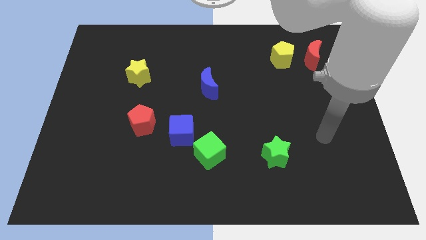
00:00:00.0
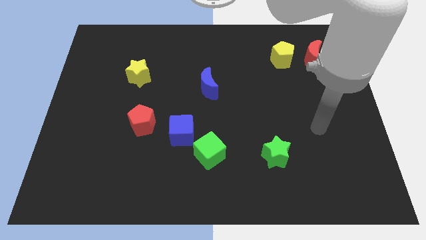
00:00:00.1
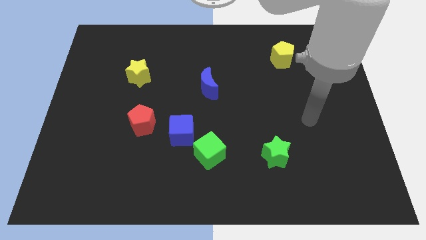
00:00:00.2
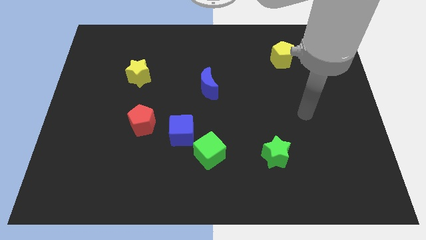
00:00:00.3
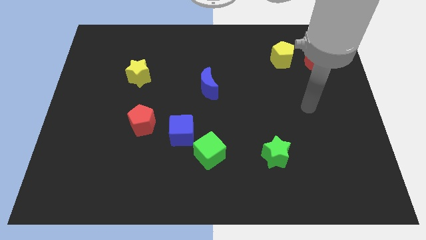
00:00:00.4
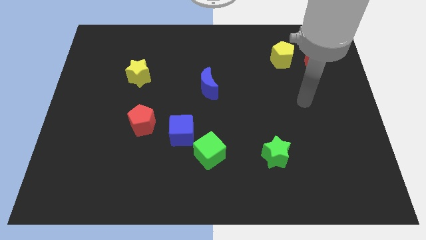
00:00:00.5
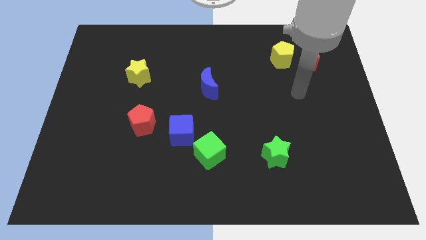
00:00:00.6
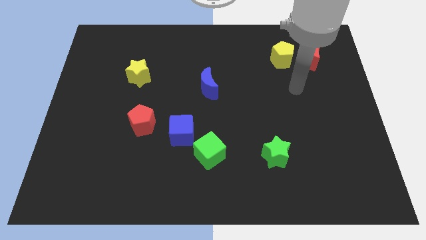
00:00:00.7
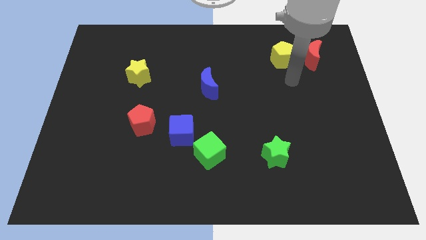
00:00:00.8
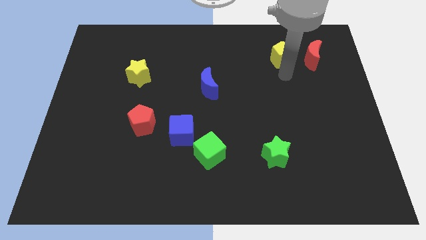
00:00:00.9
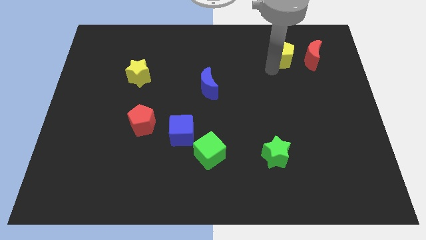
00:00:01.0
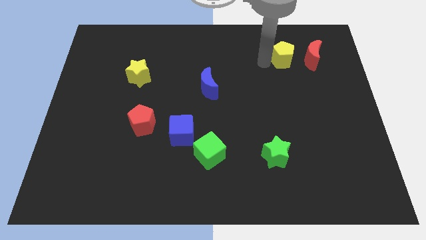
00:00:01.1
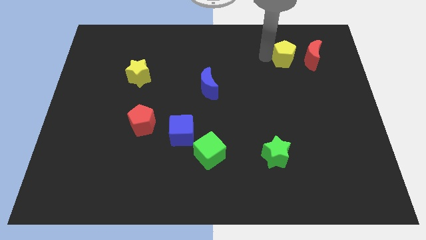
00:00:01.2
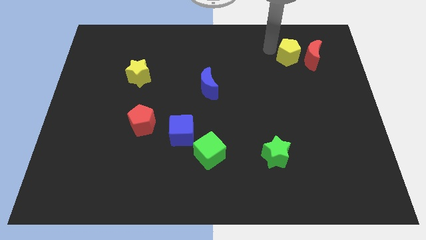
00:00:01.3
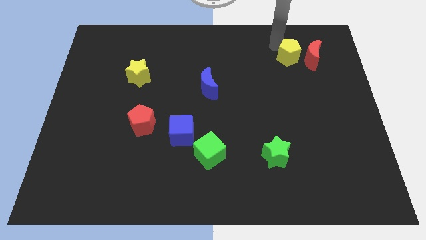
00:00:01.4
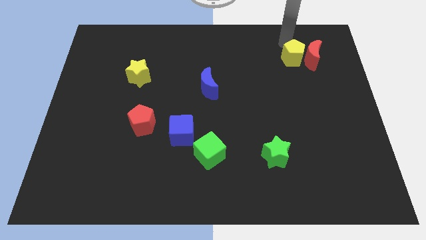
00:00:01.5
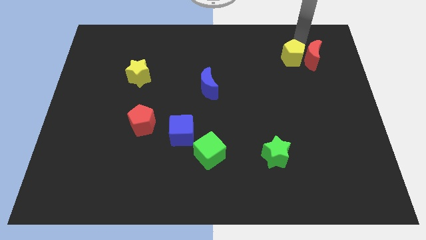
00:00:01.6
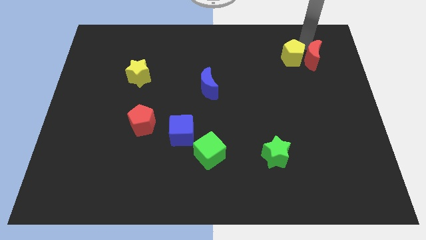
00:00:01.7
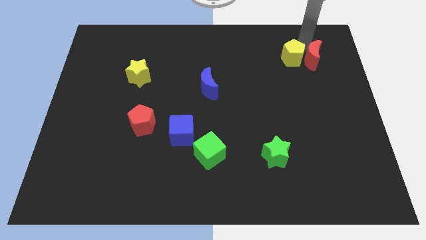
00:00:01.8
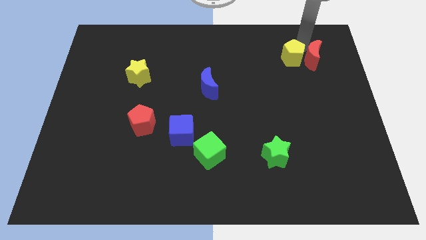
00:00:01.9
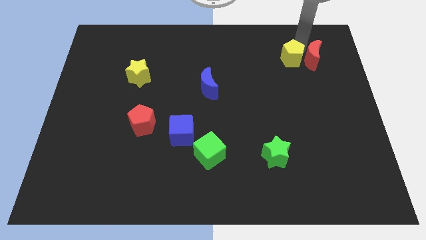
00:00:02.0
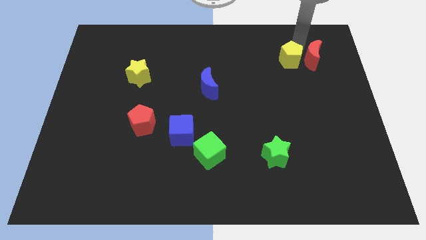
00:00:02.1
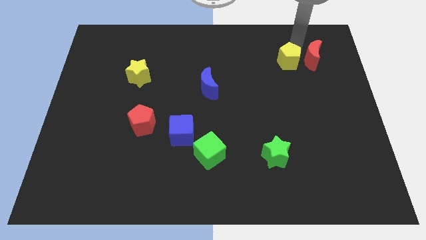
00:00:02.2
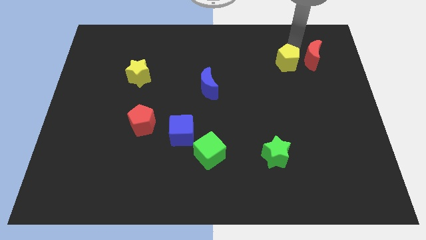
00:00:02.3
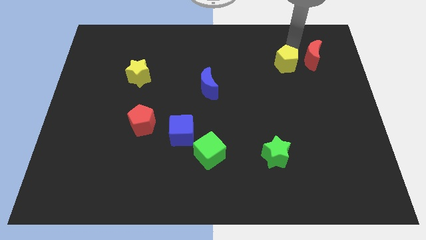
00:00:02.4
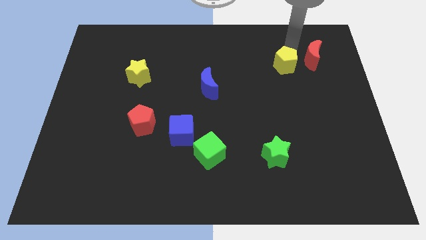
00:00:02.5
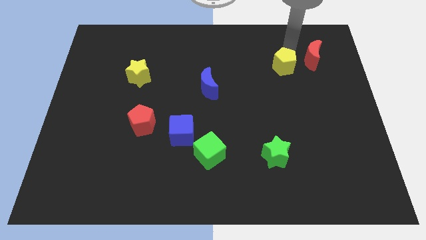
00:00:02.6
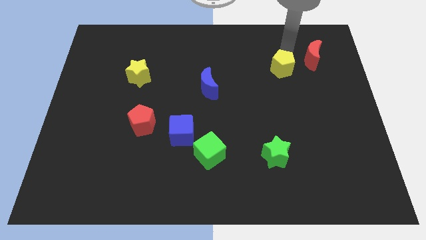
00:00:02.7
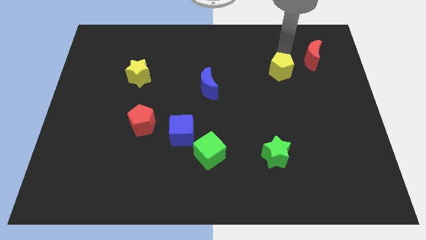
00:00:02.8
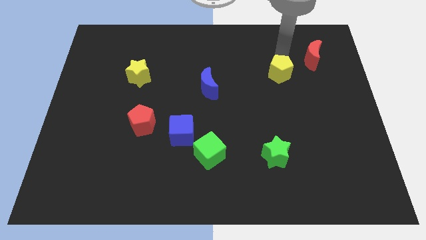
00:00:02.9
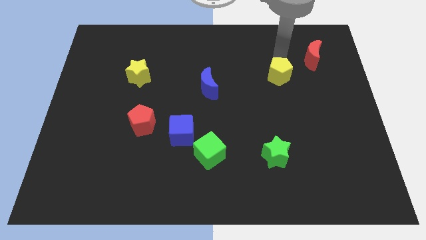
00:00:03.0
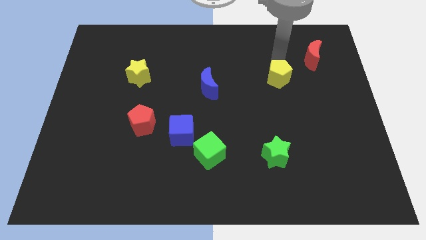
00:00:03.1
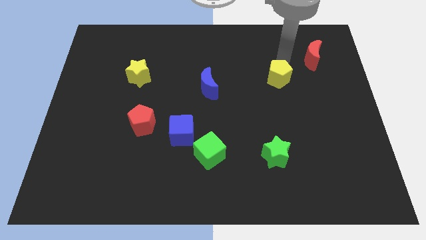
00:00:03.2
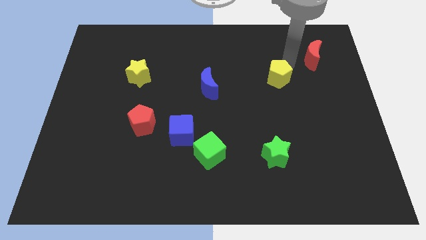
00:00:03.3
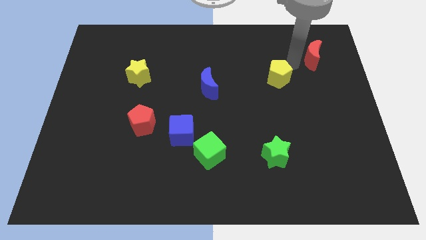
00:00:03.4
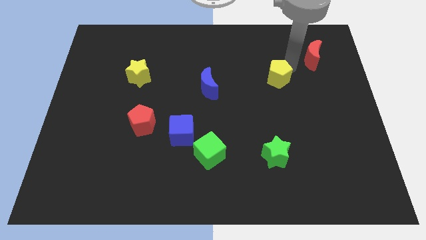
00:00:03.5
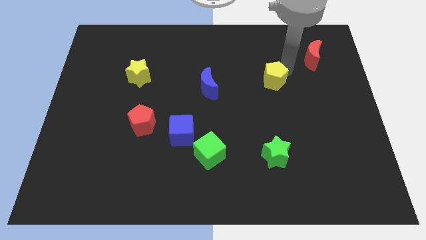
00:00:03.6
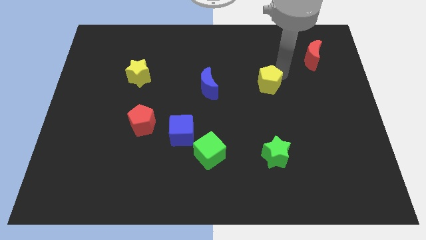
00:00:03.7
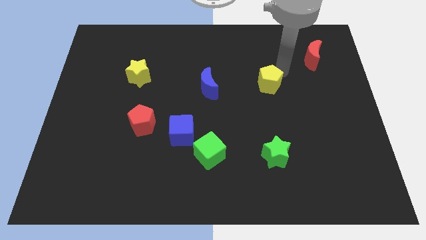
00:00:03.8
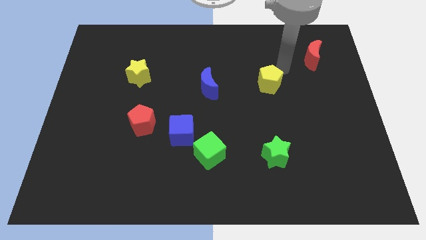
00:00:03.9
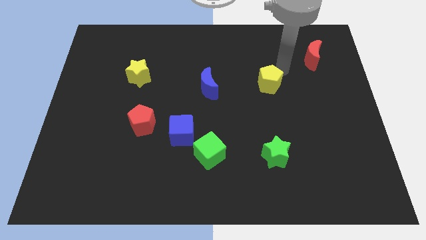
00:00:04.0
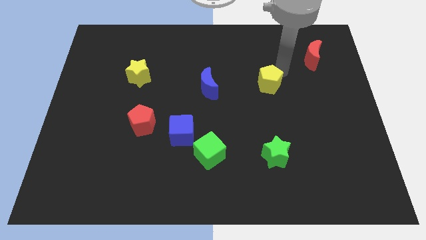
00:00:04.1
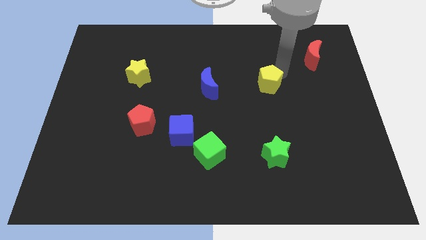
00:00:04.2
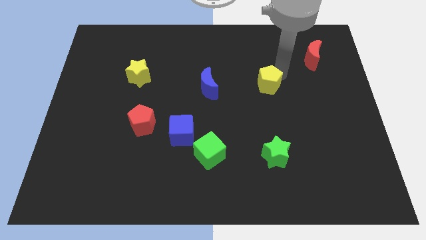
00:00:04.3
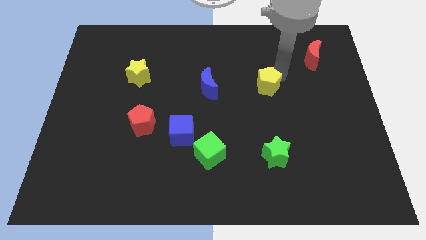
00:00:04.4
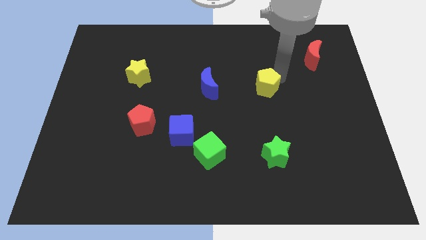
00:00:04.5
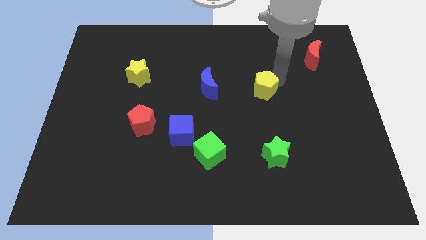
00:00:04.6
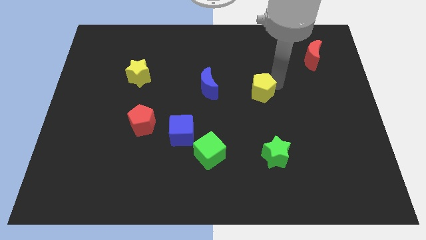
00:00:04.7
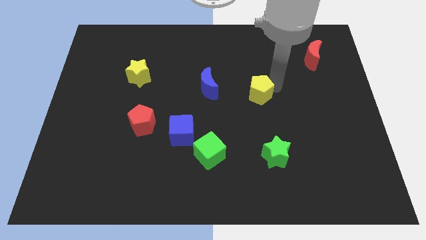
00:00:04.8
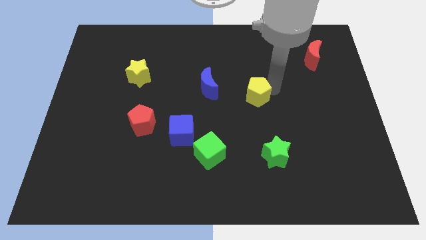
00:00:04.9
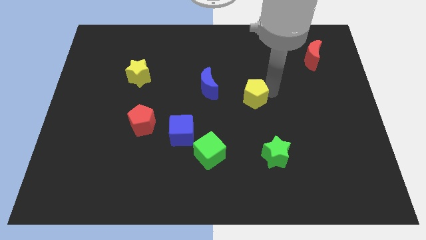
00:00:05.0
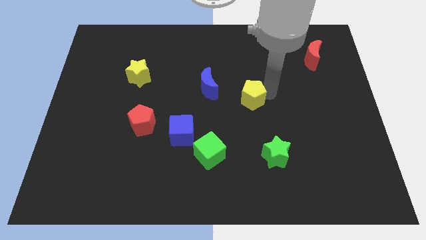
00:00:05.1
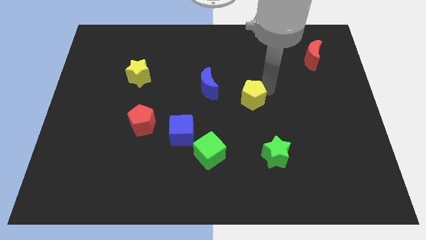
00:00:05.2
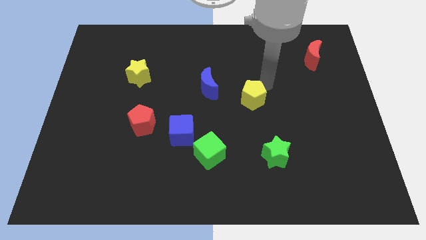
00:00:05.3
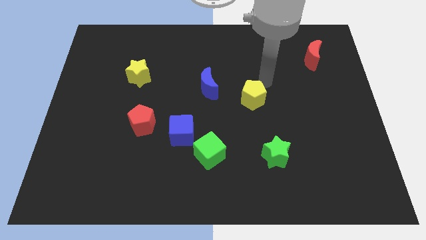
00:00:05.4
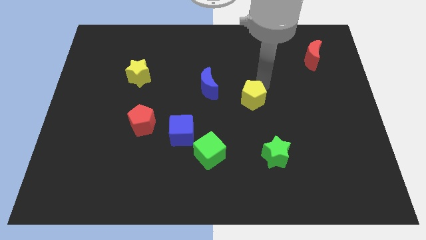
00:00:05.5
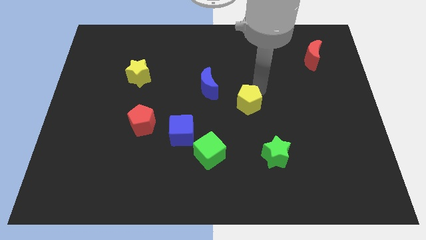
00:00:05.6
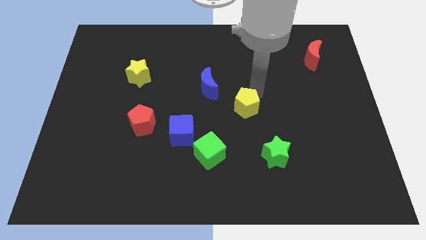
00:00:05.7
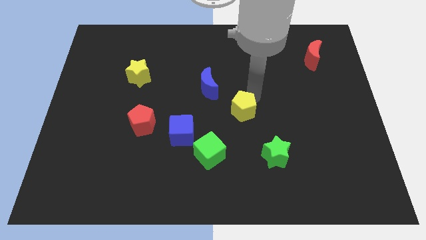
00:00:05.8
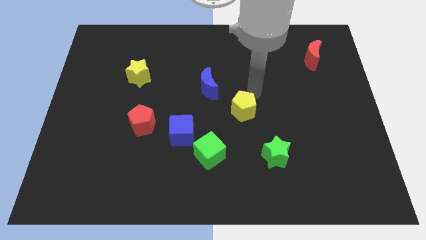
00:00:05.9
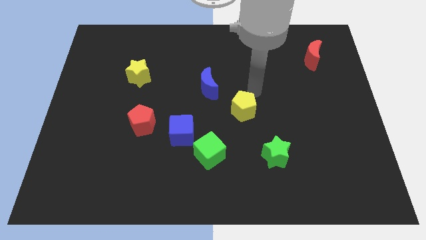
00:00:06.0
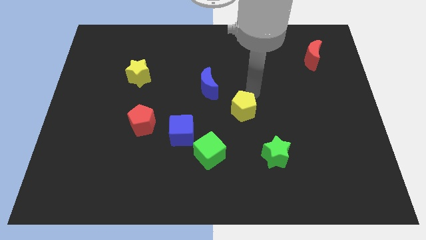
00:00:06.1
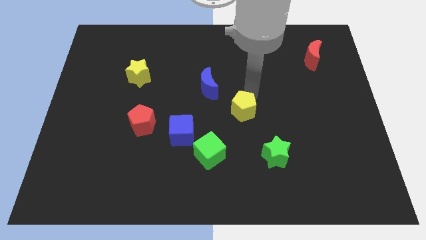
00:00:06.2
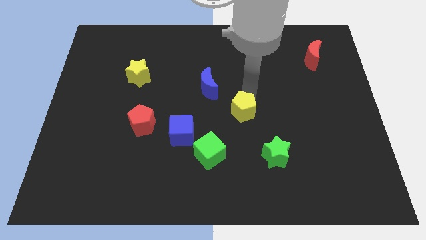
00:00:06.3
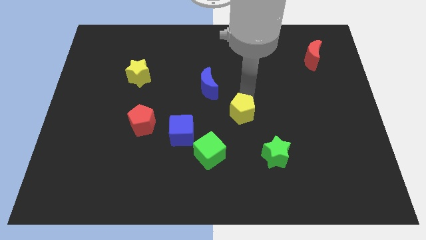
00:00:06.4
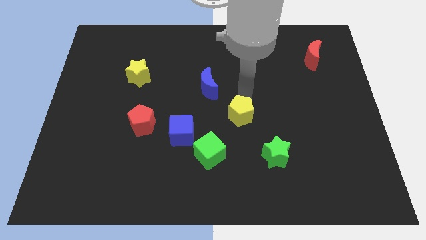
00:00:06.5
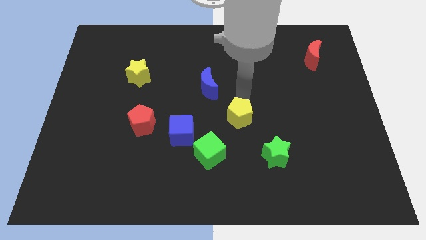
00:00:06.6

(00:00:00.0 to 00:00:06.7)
push the yellow pentagon right of the blue cube

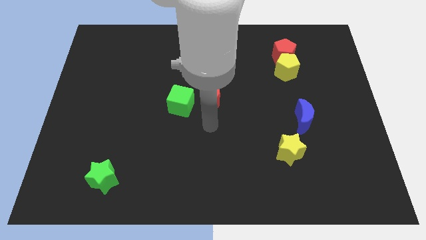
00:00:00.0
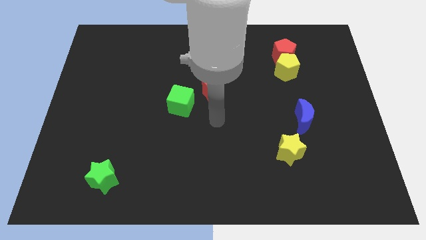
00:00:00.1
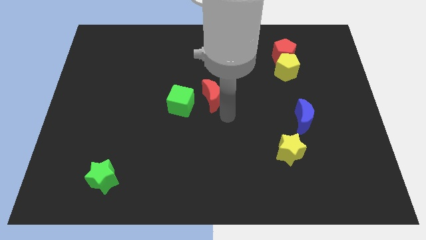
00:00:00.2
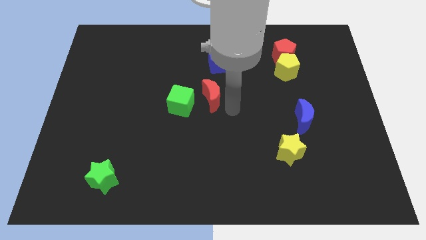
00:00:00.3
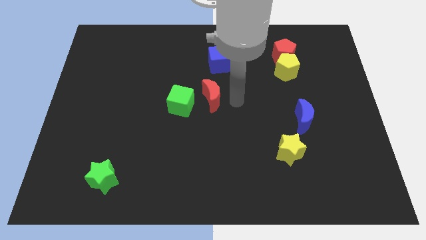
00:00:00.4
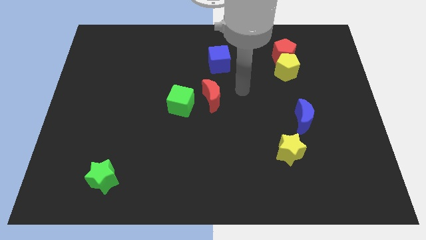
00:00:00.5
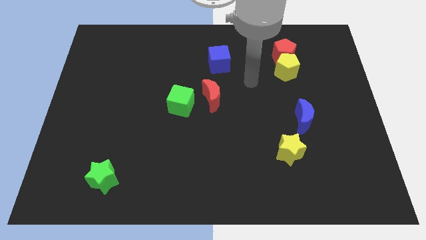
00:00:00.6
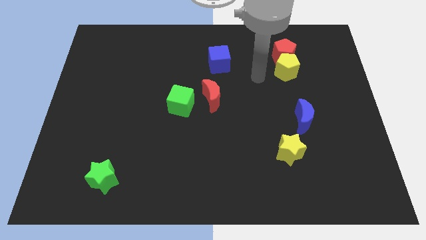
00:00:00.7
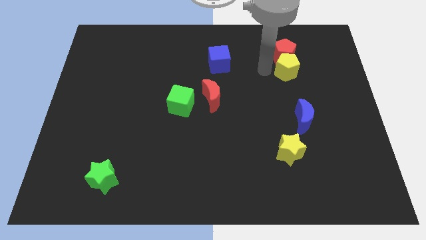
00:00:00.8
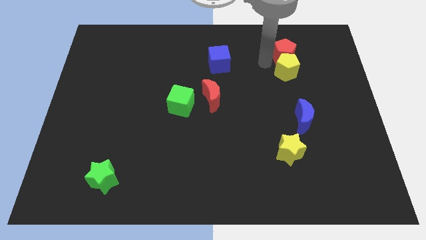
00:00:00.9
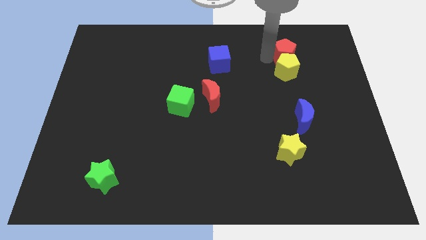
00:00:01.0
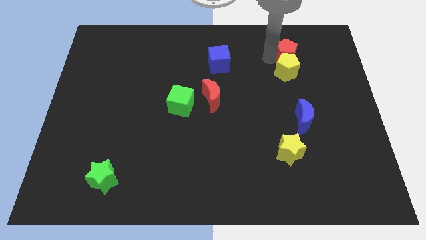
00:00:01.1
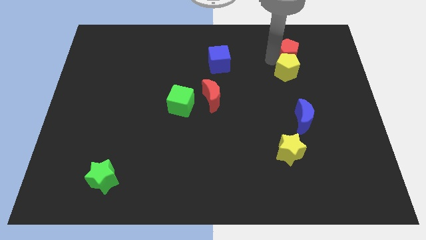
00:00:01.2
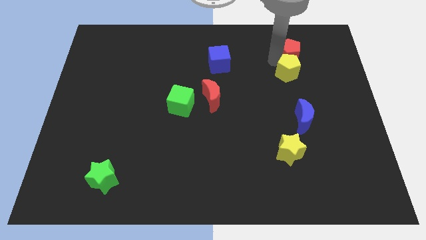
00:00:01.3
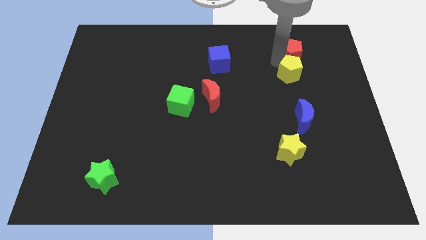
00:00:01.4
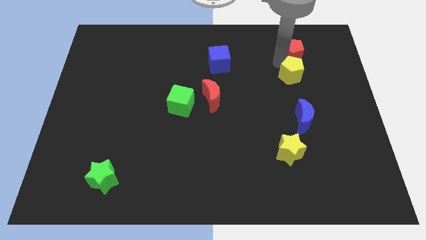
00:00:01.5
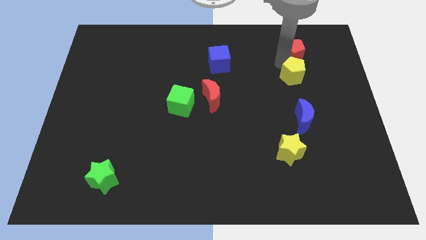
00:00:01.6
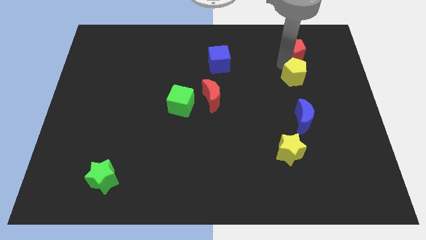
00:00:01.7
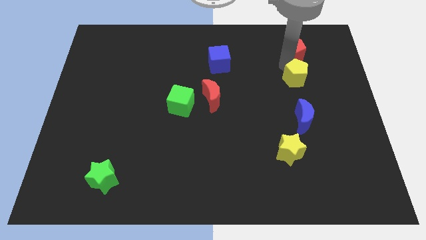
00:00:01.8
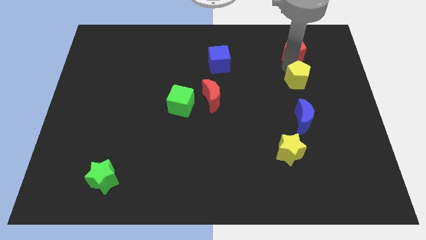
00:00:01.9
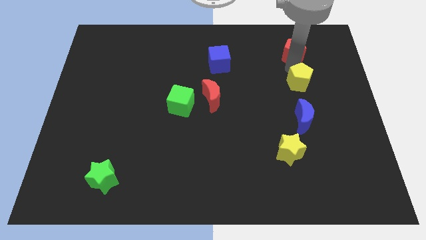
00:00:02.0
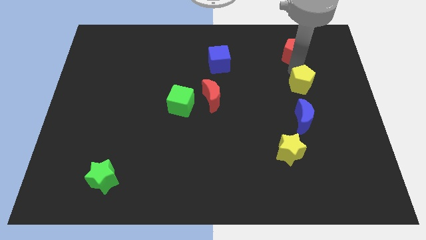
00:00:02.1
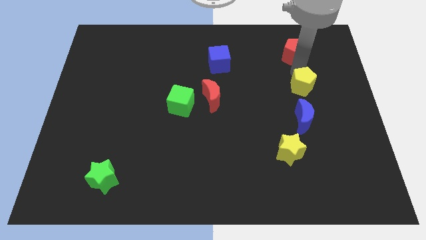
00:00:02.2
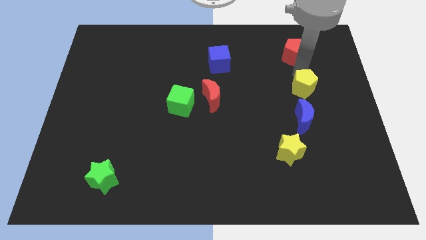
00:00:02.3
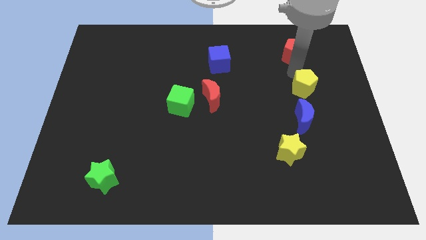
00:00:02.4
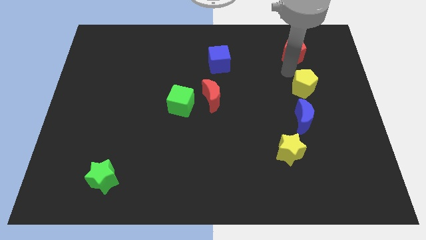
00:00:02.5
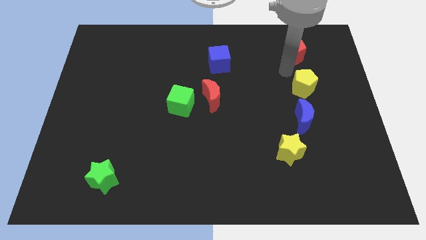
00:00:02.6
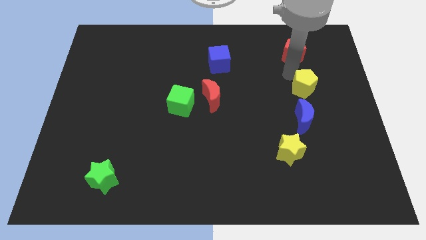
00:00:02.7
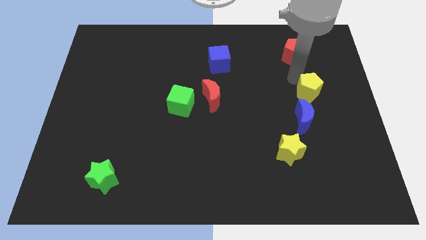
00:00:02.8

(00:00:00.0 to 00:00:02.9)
move the yellow pentagon to the top right side of the blue moon
